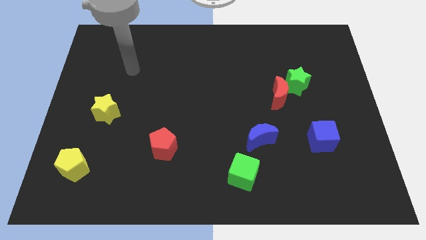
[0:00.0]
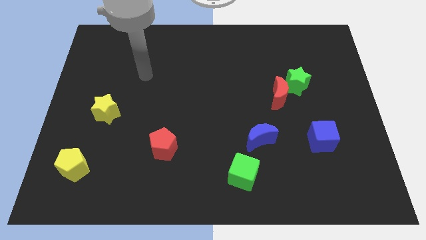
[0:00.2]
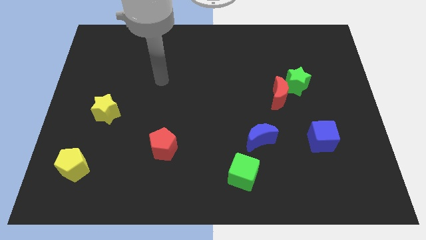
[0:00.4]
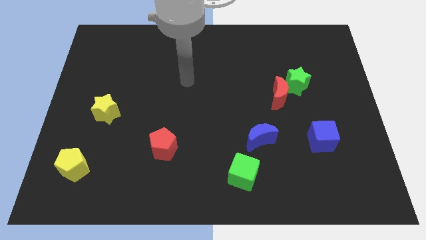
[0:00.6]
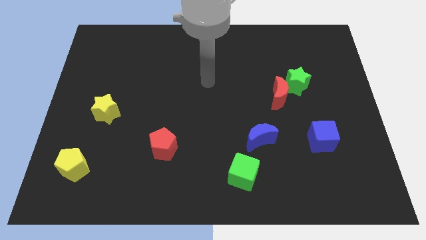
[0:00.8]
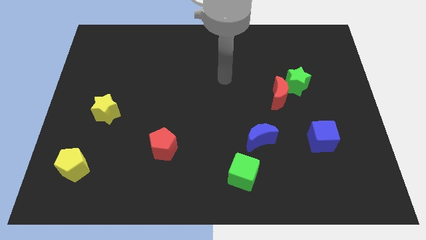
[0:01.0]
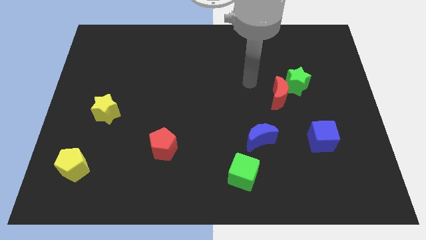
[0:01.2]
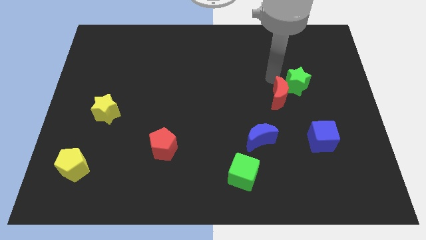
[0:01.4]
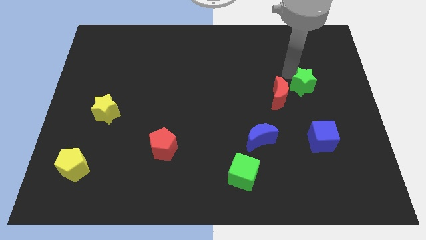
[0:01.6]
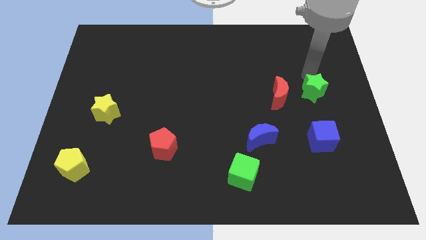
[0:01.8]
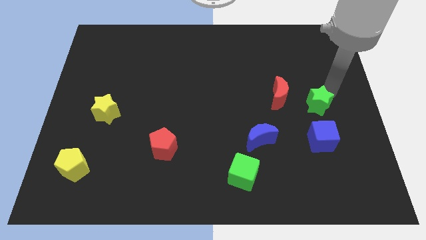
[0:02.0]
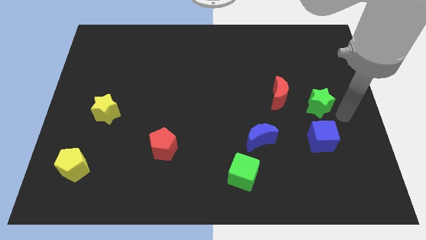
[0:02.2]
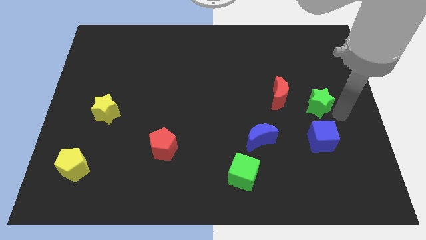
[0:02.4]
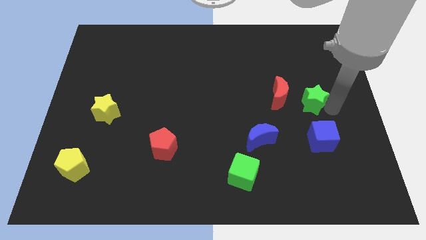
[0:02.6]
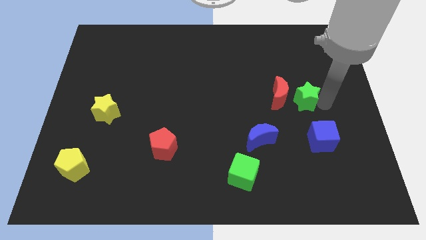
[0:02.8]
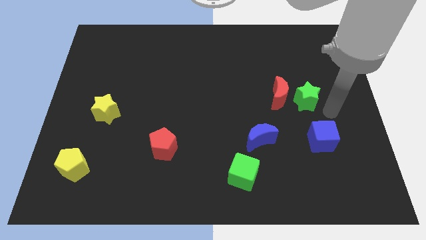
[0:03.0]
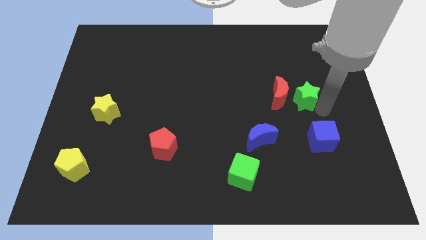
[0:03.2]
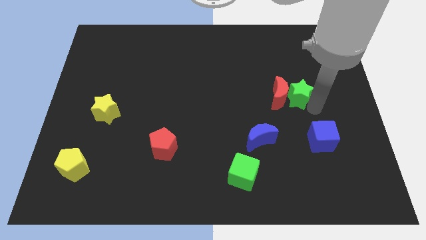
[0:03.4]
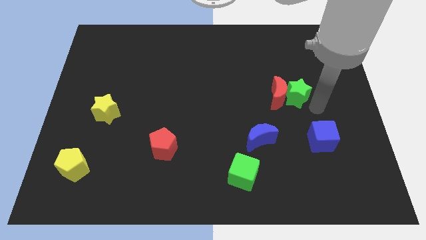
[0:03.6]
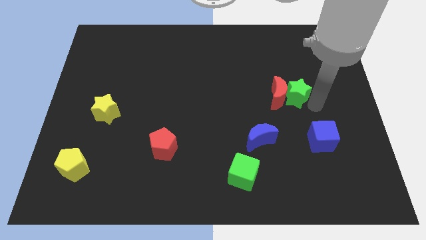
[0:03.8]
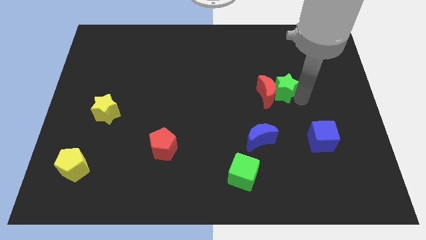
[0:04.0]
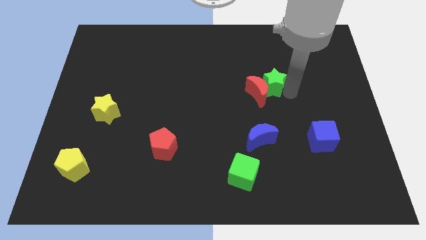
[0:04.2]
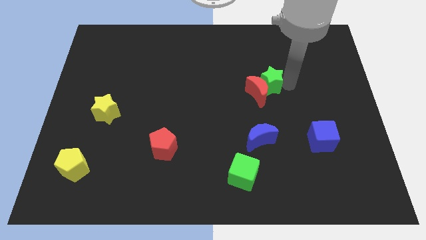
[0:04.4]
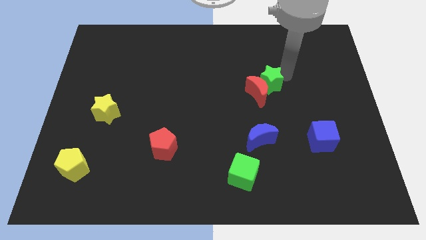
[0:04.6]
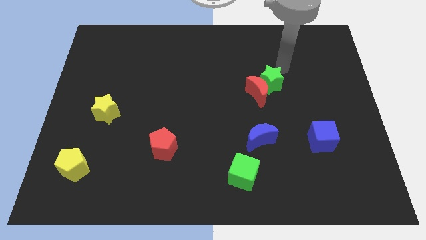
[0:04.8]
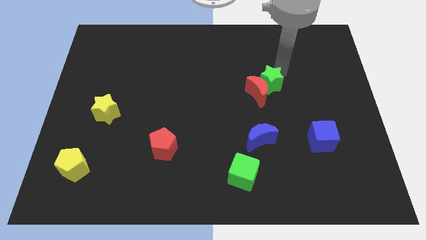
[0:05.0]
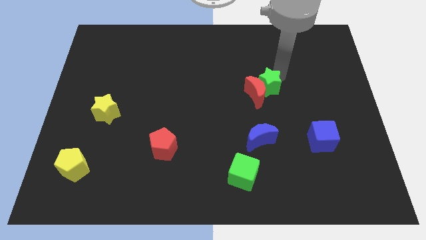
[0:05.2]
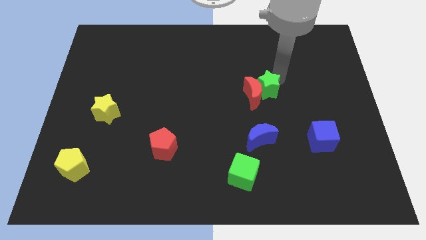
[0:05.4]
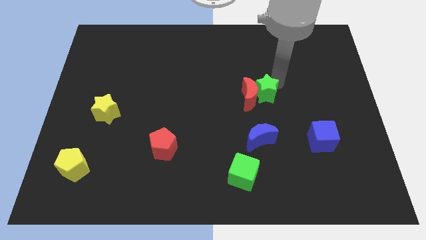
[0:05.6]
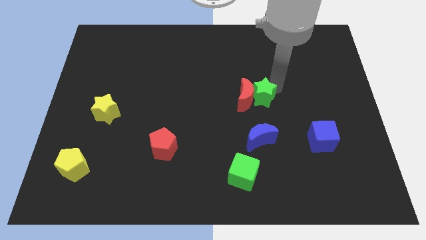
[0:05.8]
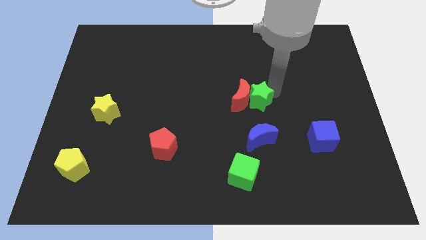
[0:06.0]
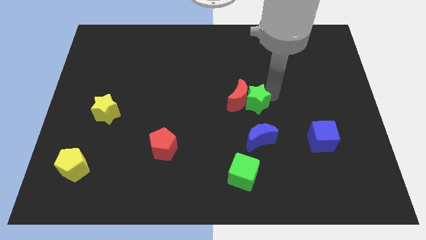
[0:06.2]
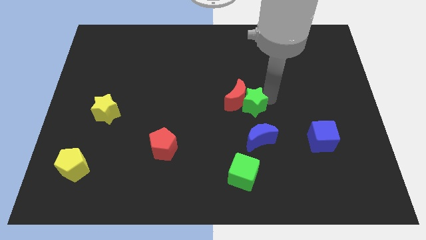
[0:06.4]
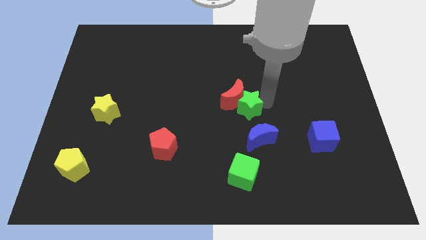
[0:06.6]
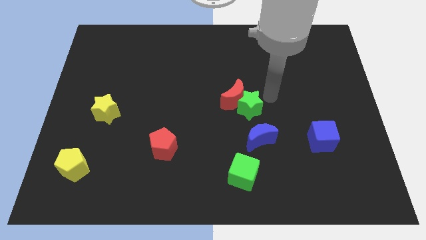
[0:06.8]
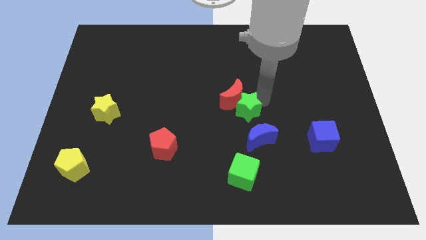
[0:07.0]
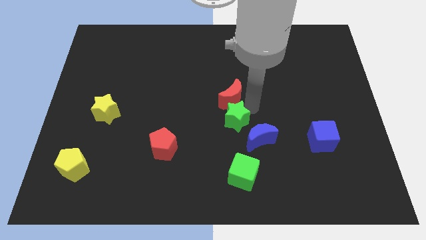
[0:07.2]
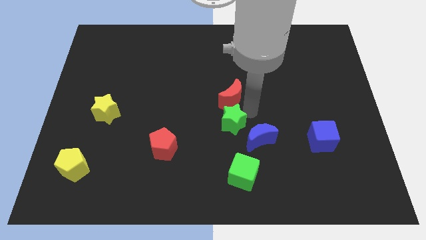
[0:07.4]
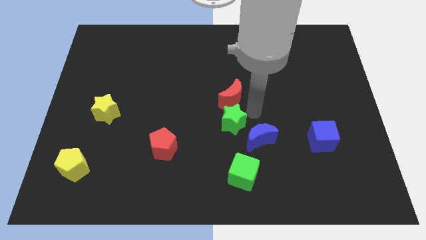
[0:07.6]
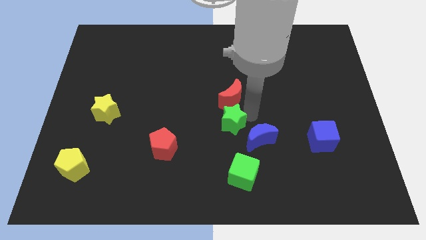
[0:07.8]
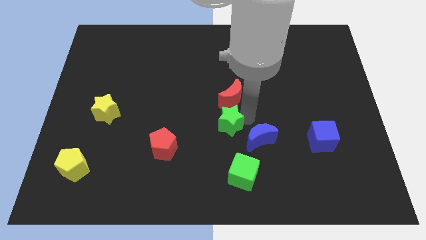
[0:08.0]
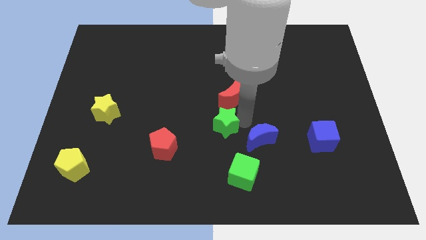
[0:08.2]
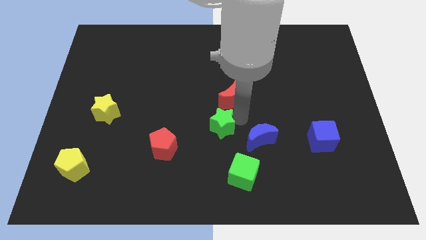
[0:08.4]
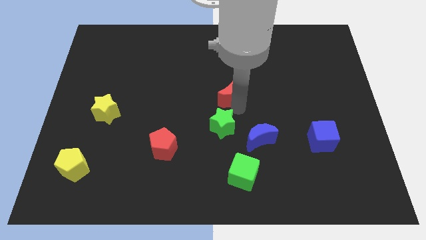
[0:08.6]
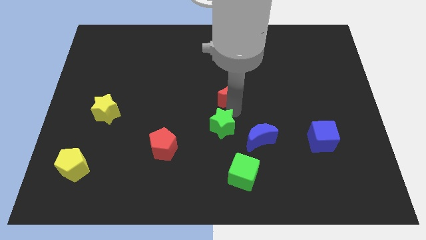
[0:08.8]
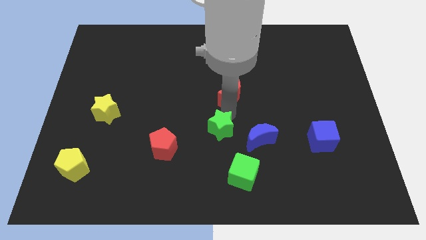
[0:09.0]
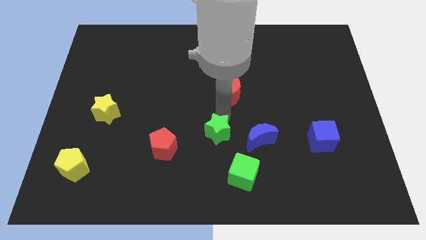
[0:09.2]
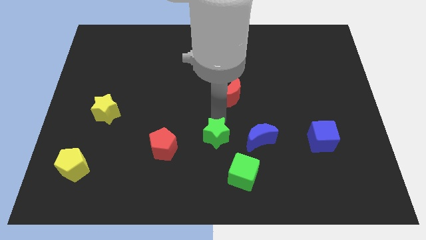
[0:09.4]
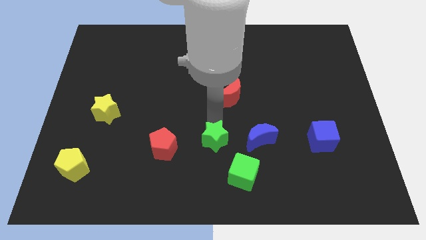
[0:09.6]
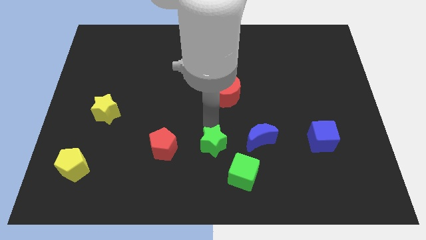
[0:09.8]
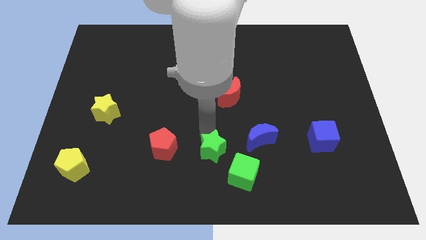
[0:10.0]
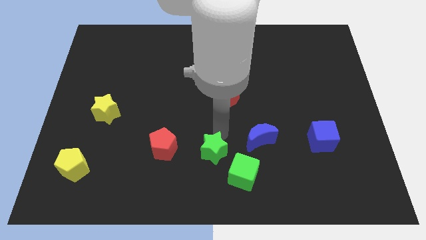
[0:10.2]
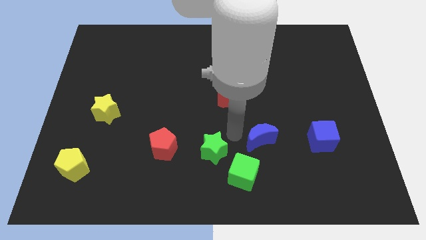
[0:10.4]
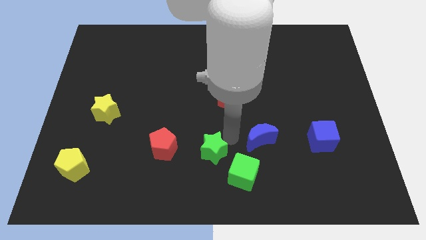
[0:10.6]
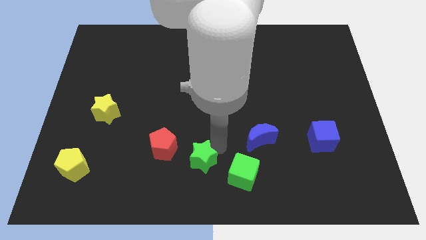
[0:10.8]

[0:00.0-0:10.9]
put the green star diagonally down and to the right of the red pentagon

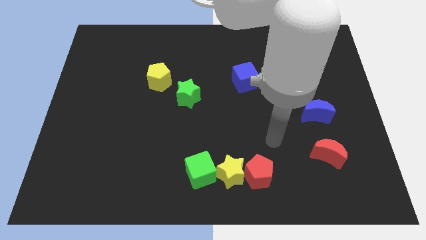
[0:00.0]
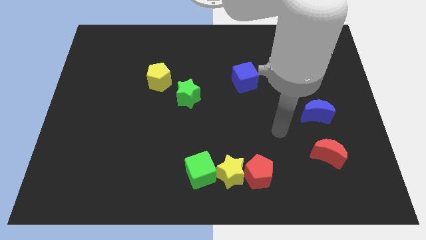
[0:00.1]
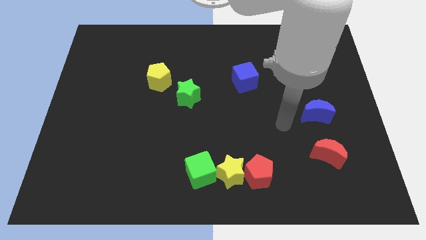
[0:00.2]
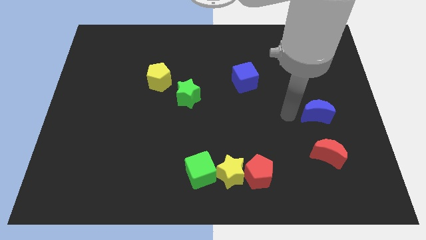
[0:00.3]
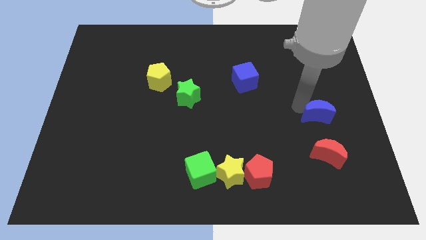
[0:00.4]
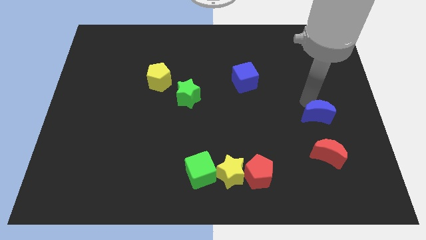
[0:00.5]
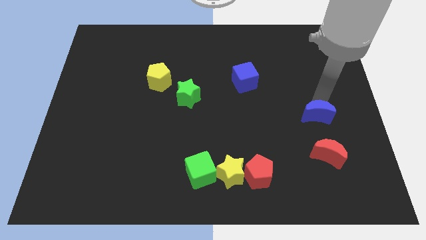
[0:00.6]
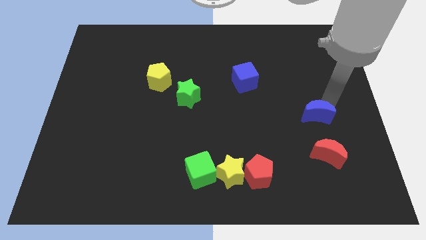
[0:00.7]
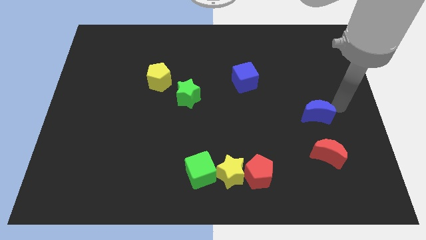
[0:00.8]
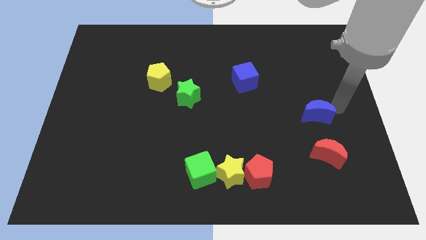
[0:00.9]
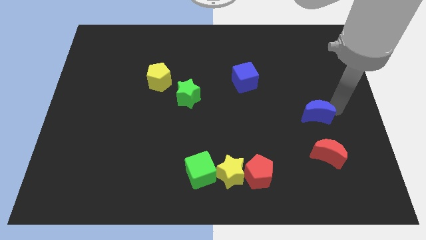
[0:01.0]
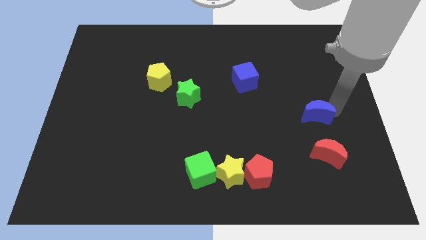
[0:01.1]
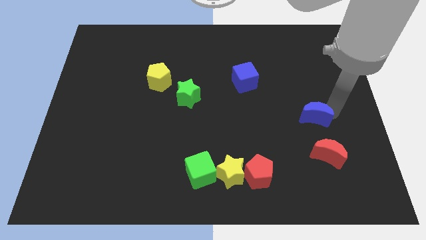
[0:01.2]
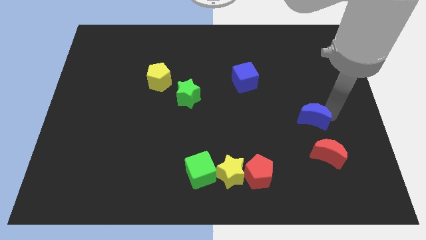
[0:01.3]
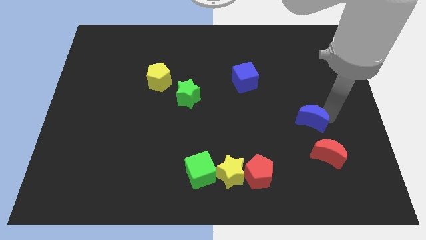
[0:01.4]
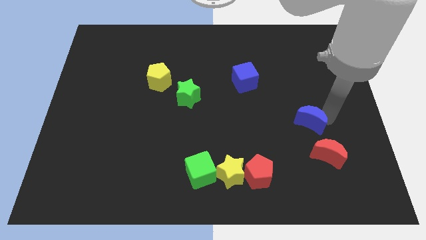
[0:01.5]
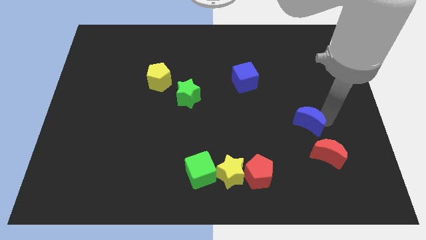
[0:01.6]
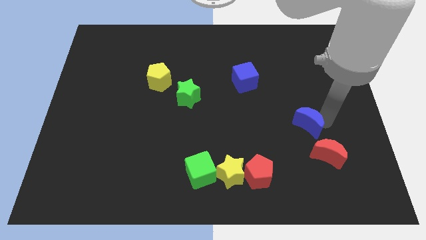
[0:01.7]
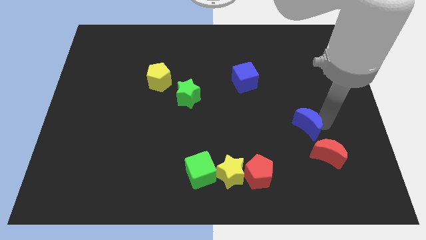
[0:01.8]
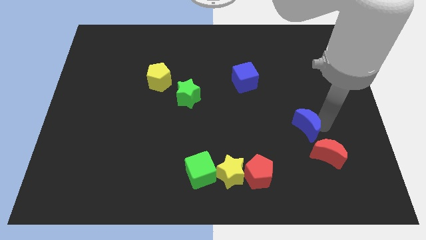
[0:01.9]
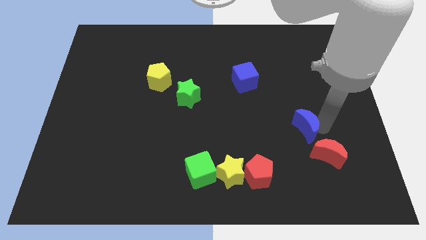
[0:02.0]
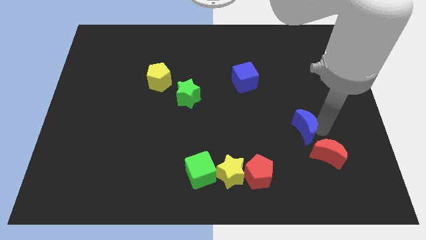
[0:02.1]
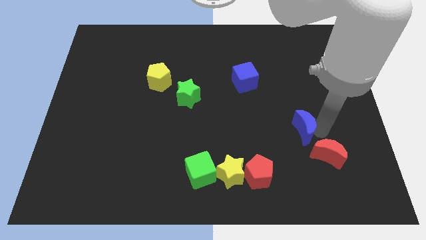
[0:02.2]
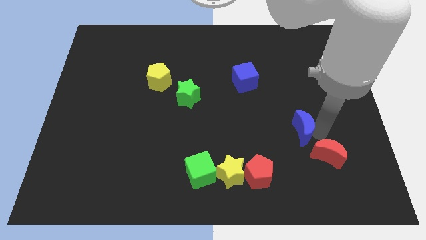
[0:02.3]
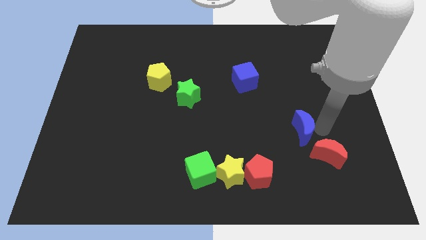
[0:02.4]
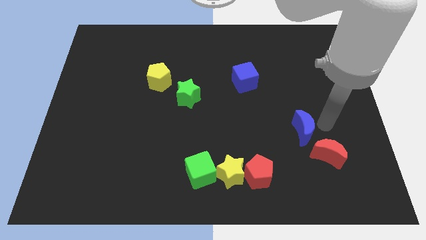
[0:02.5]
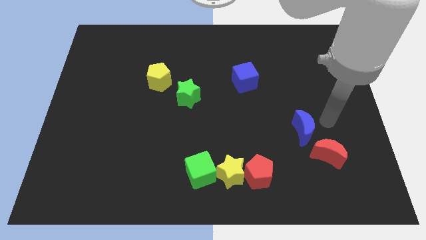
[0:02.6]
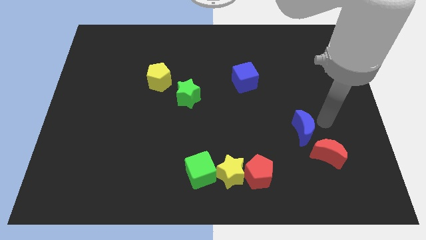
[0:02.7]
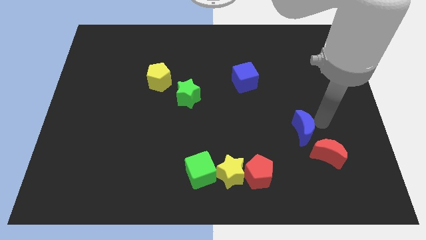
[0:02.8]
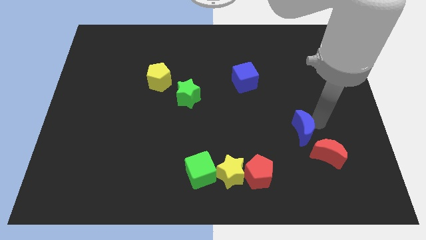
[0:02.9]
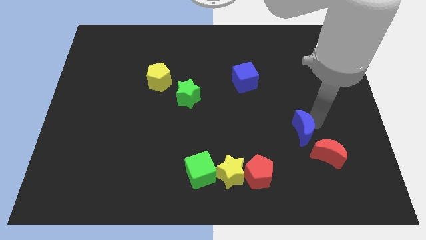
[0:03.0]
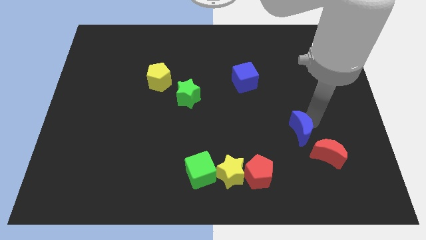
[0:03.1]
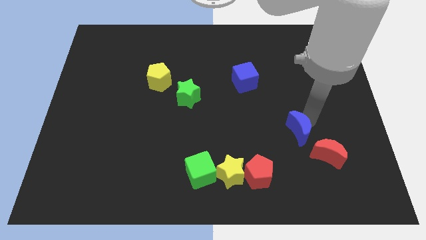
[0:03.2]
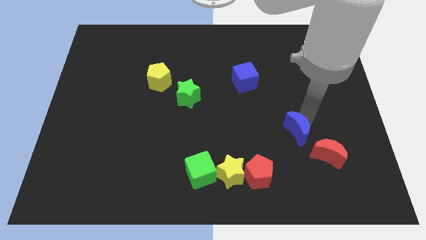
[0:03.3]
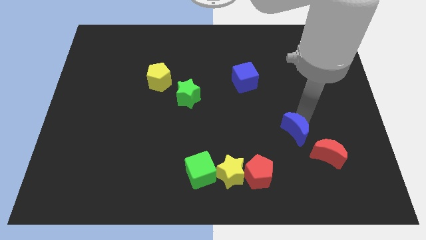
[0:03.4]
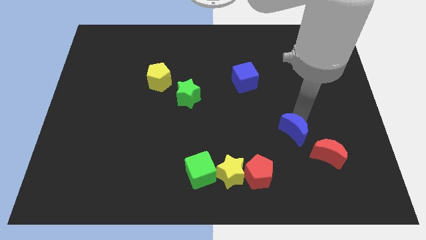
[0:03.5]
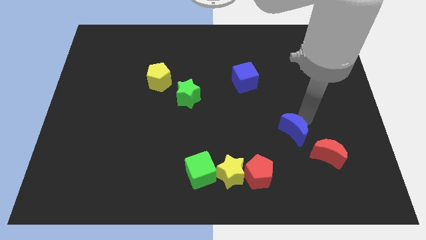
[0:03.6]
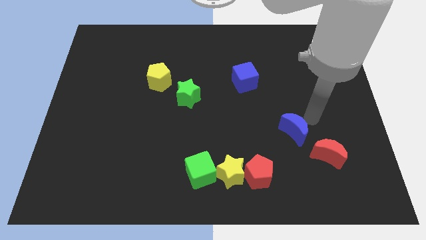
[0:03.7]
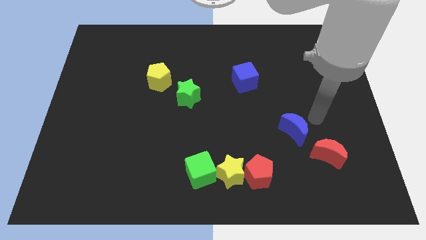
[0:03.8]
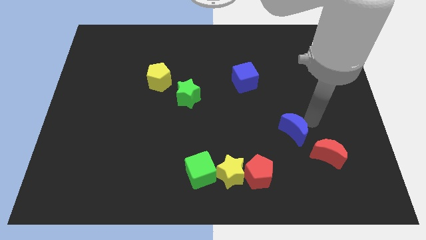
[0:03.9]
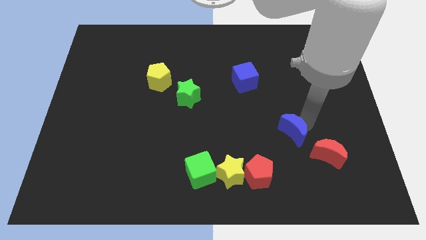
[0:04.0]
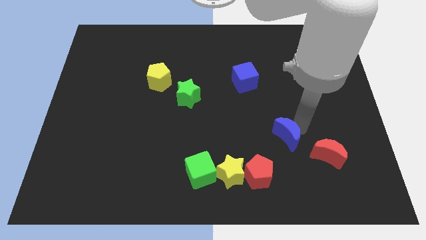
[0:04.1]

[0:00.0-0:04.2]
push the blue moon to the left of the red moon
